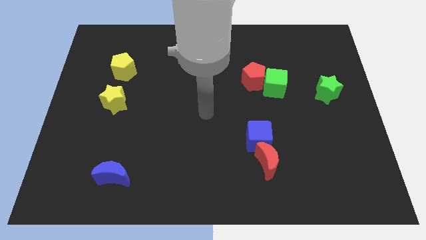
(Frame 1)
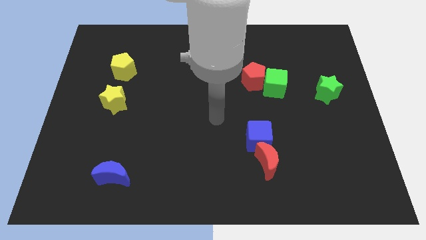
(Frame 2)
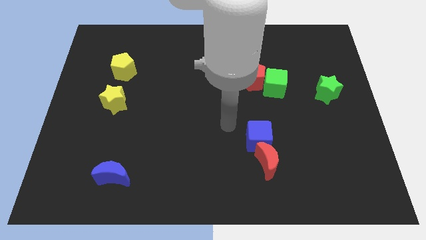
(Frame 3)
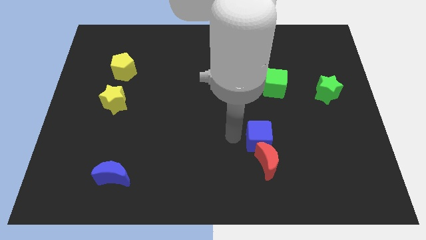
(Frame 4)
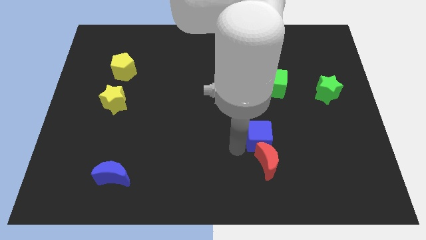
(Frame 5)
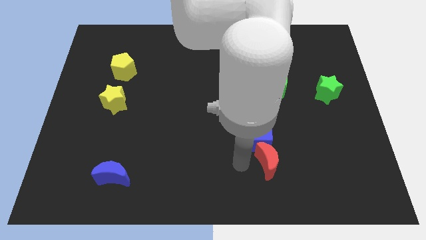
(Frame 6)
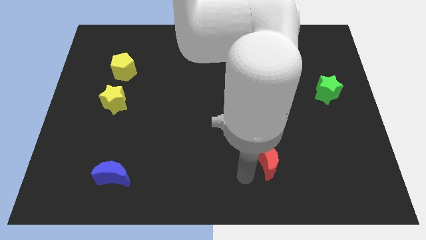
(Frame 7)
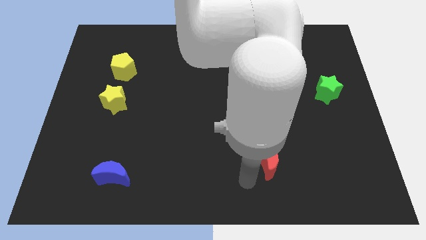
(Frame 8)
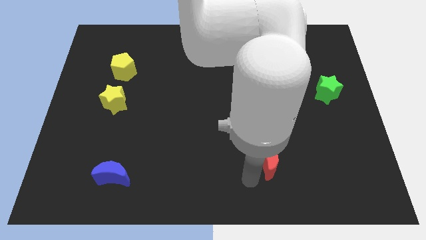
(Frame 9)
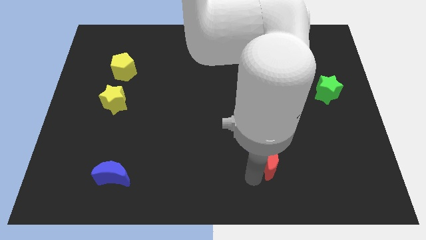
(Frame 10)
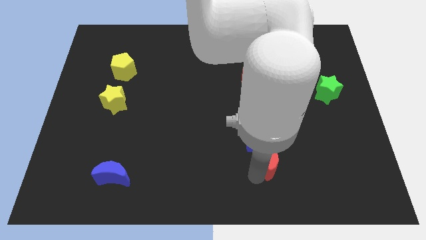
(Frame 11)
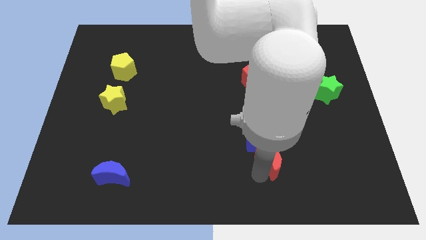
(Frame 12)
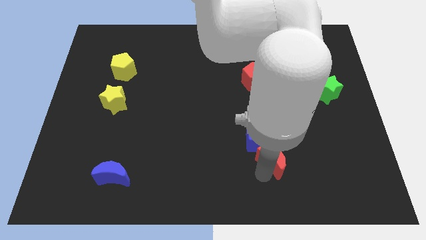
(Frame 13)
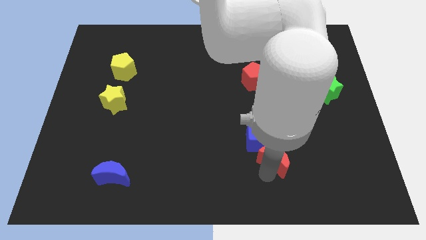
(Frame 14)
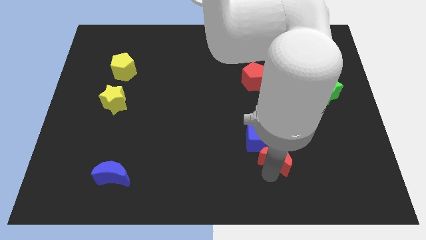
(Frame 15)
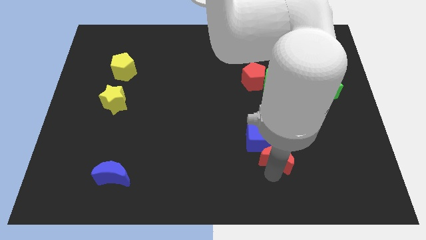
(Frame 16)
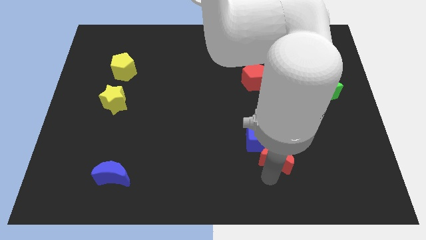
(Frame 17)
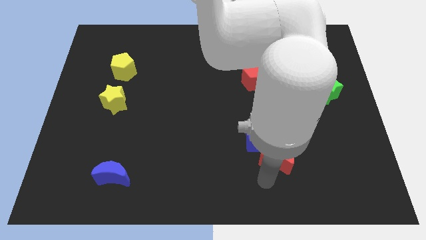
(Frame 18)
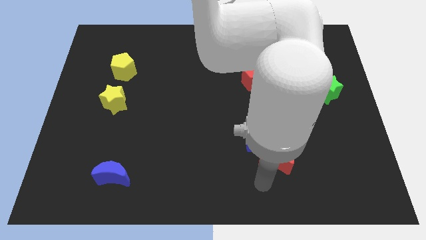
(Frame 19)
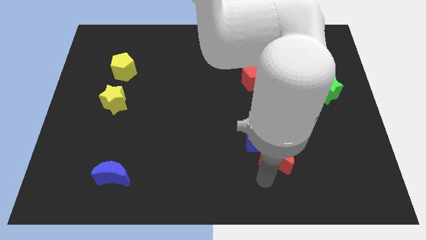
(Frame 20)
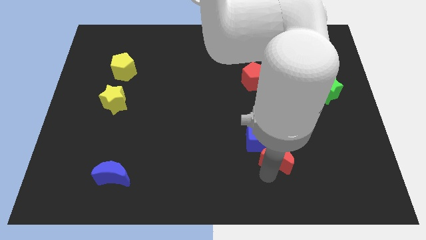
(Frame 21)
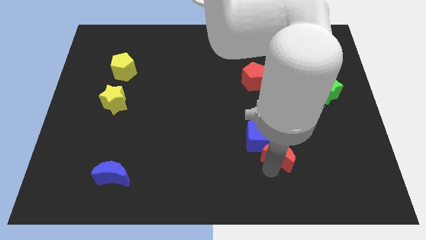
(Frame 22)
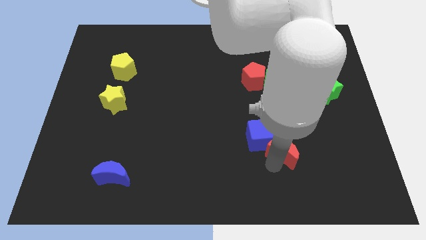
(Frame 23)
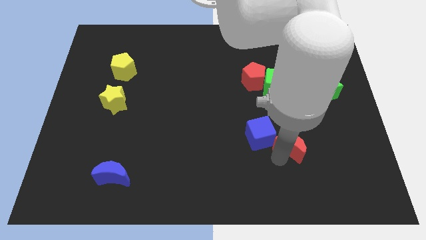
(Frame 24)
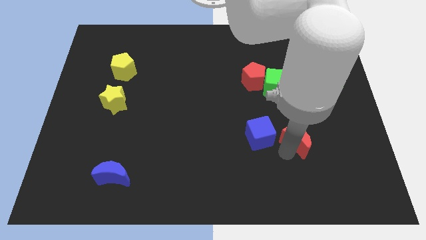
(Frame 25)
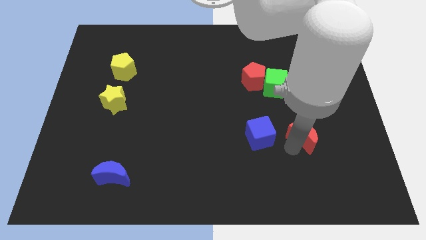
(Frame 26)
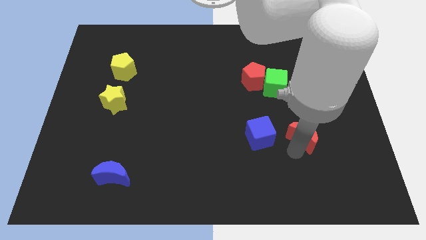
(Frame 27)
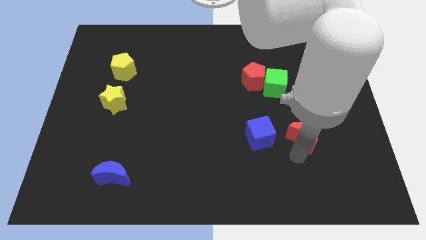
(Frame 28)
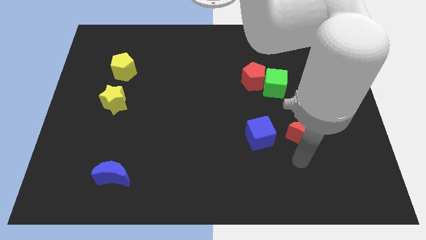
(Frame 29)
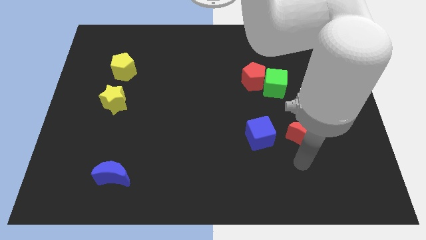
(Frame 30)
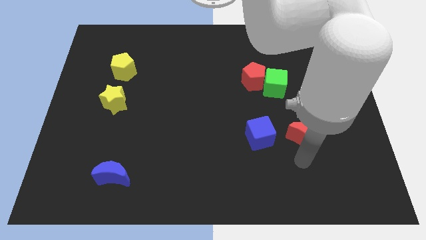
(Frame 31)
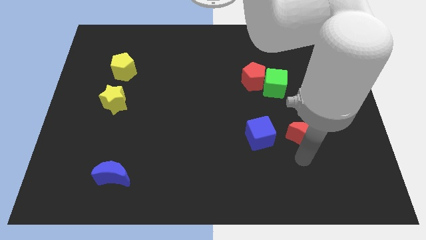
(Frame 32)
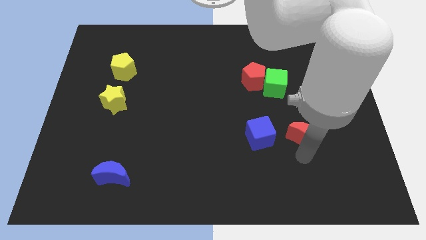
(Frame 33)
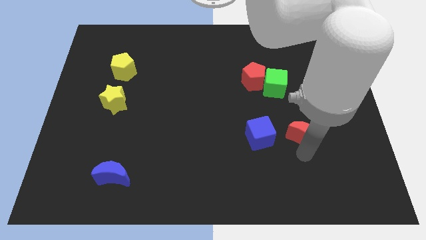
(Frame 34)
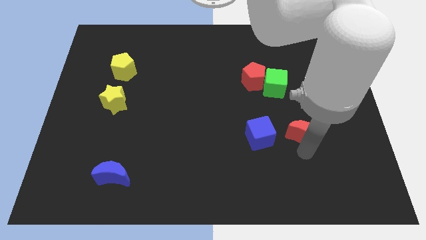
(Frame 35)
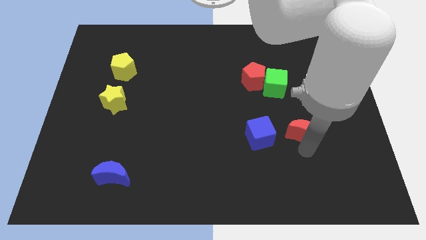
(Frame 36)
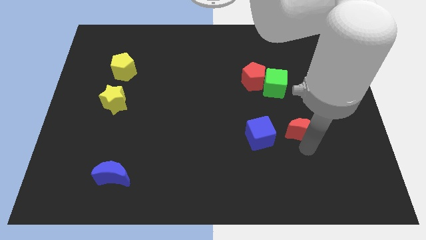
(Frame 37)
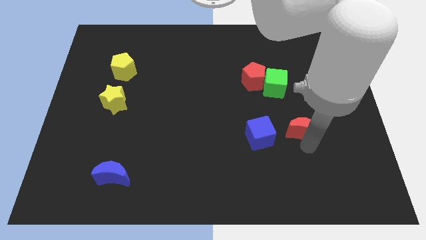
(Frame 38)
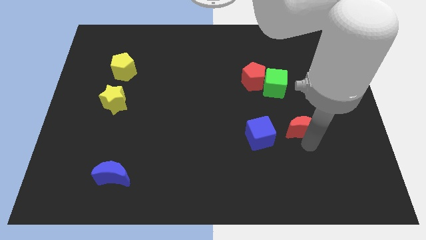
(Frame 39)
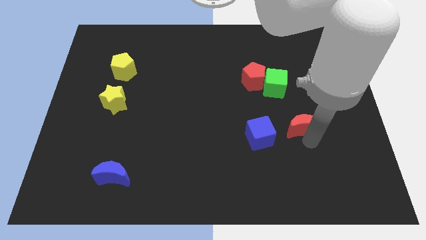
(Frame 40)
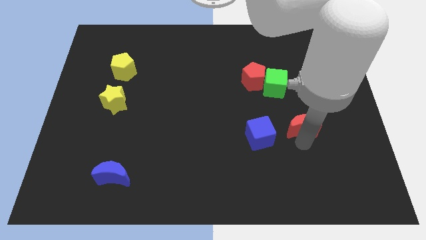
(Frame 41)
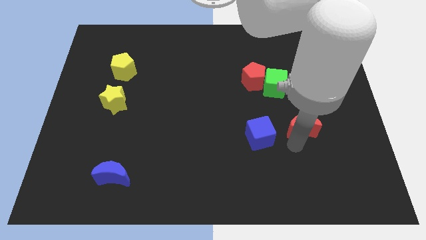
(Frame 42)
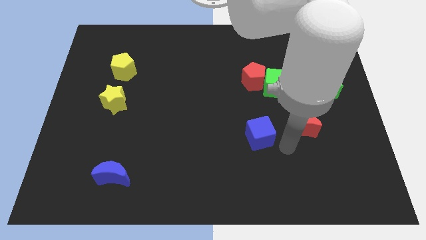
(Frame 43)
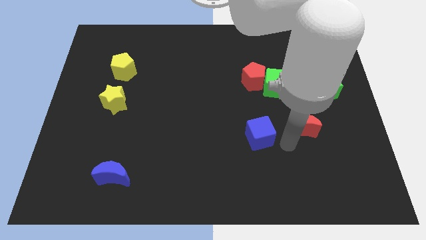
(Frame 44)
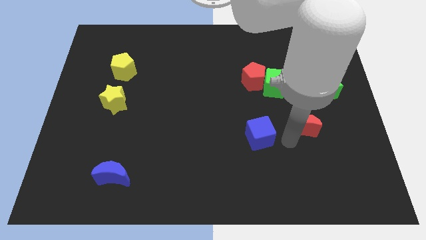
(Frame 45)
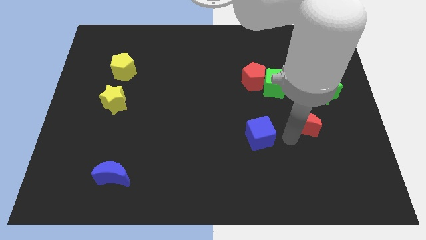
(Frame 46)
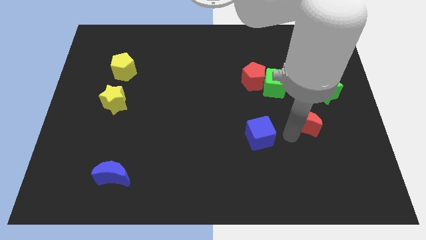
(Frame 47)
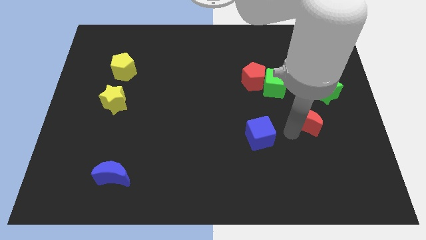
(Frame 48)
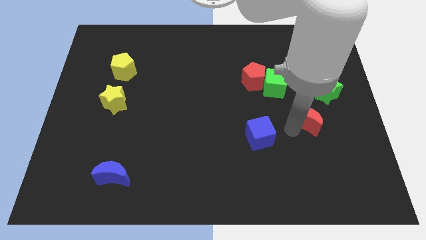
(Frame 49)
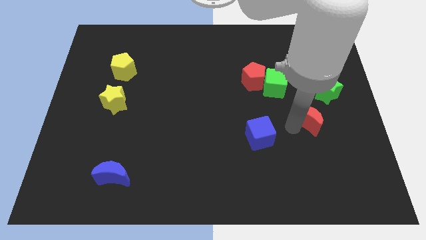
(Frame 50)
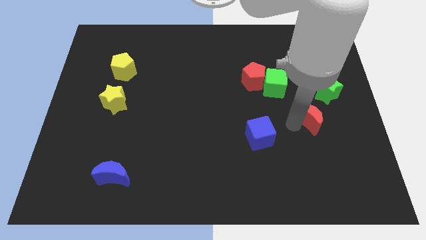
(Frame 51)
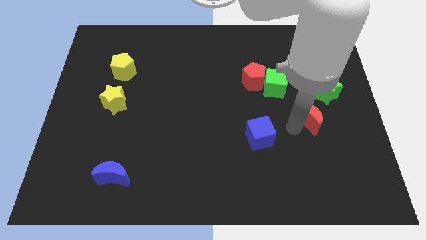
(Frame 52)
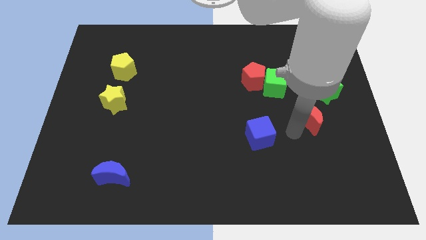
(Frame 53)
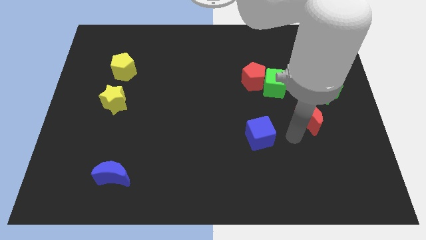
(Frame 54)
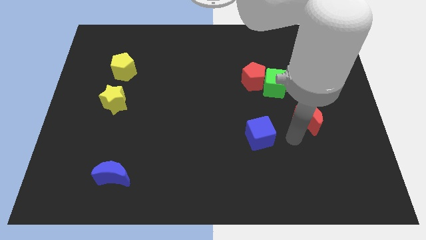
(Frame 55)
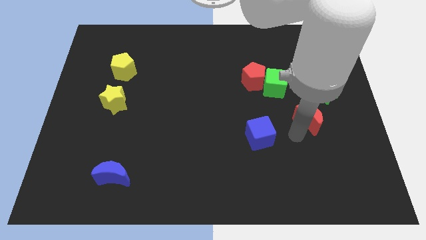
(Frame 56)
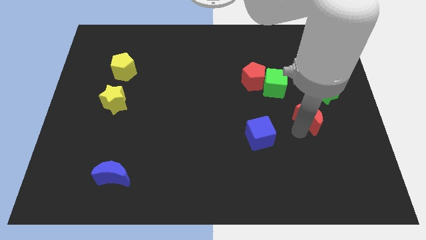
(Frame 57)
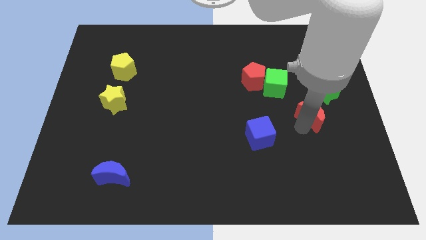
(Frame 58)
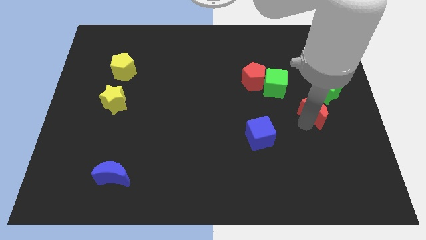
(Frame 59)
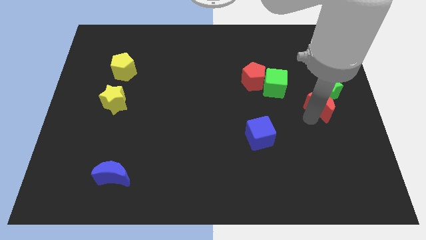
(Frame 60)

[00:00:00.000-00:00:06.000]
move the red moon next to the green star
